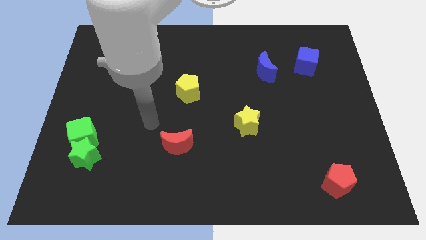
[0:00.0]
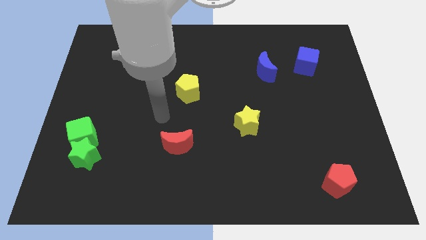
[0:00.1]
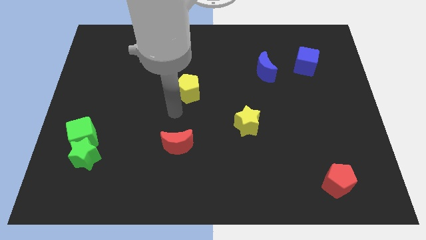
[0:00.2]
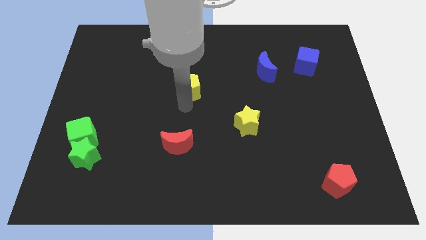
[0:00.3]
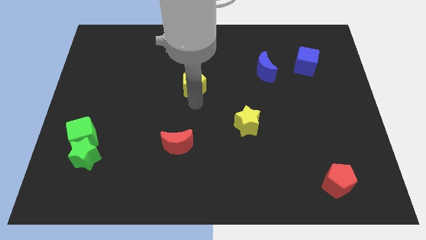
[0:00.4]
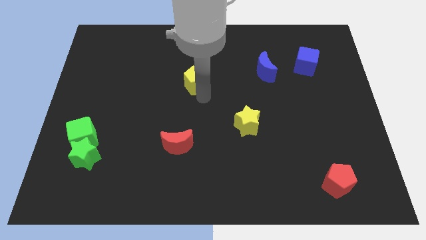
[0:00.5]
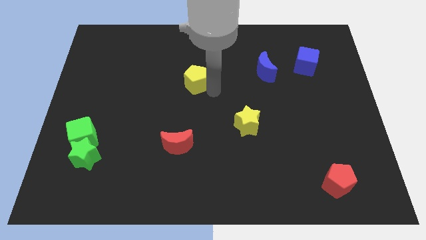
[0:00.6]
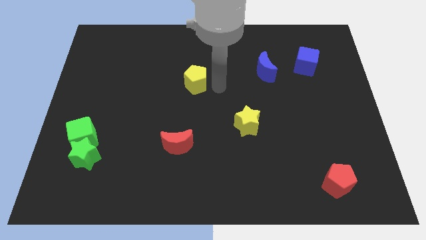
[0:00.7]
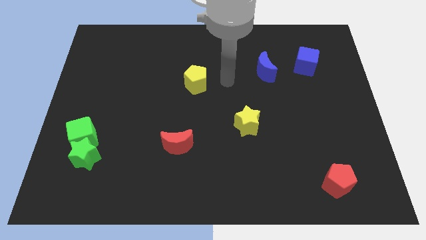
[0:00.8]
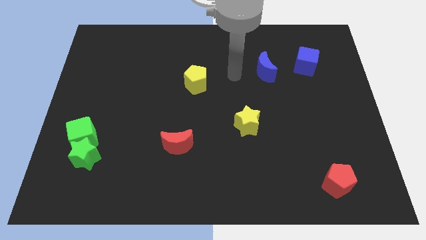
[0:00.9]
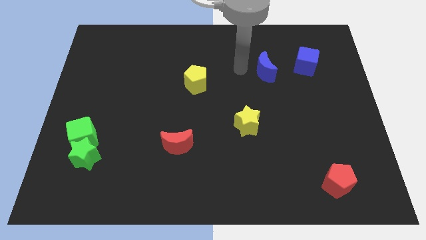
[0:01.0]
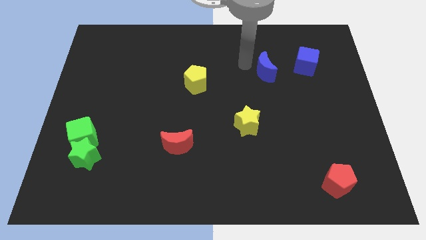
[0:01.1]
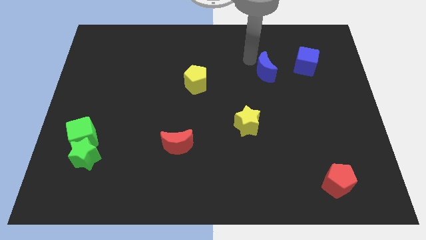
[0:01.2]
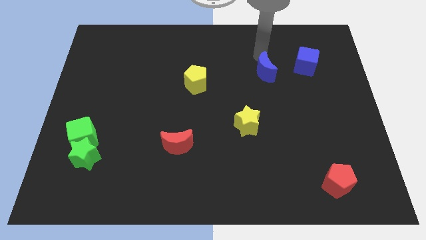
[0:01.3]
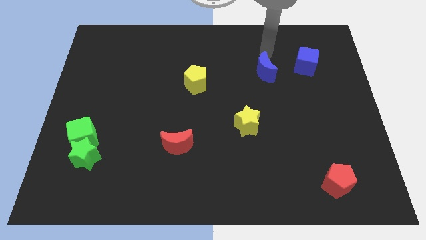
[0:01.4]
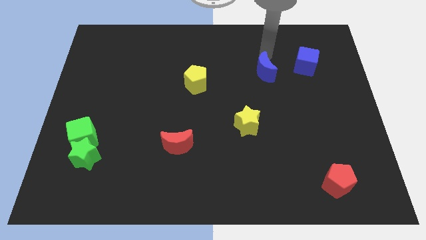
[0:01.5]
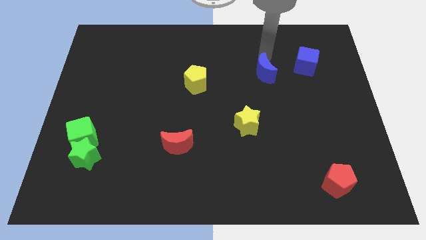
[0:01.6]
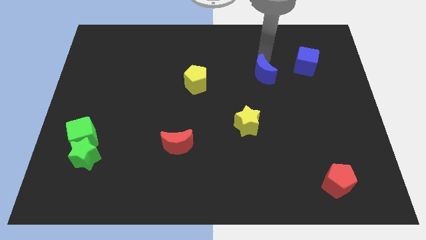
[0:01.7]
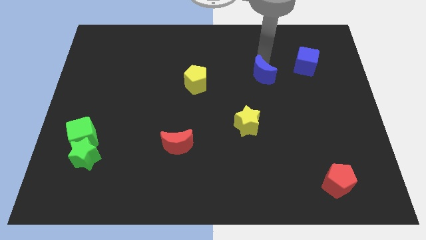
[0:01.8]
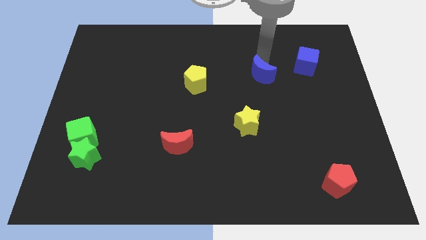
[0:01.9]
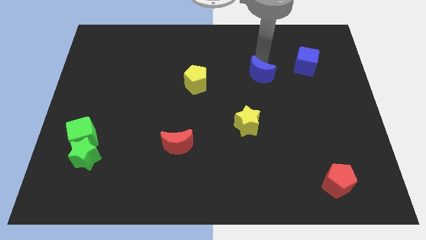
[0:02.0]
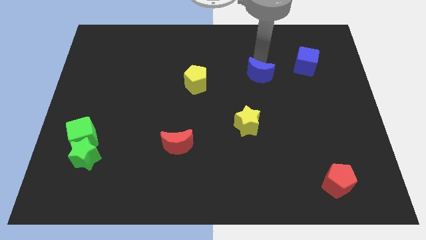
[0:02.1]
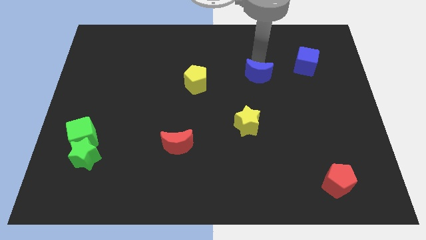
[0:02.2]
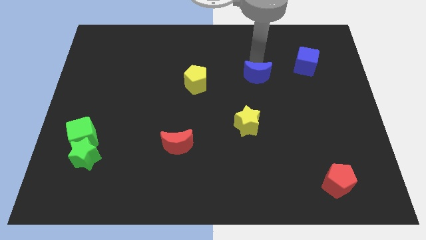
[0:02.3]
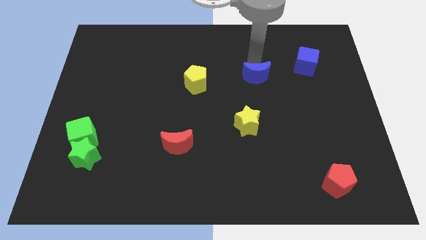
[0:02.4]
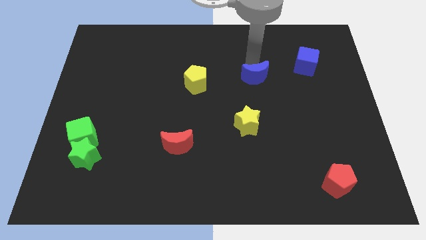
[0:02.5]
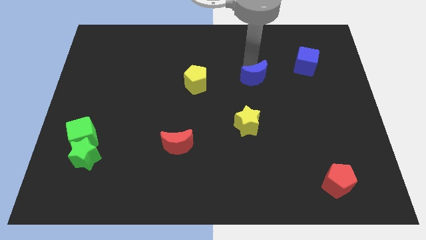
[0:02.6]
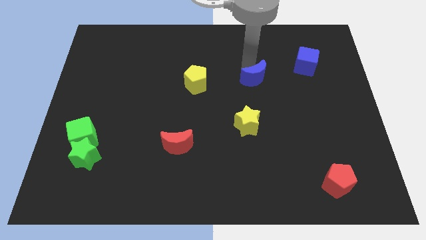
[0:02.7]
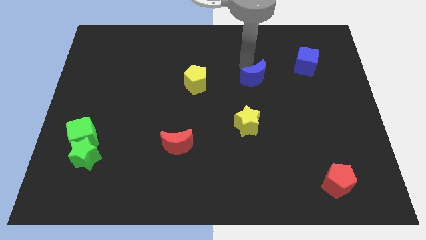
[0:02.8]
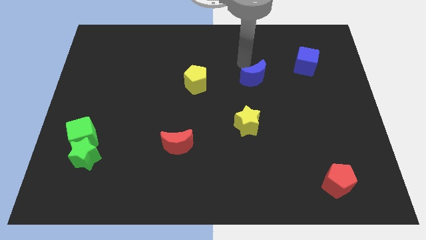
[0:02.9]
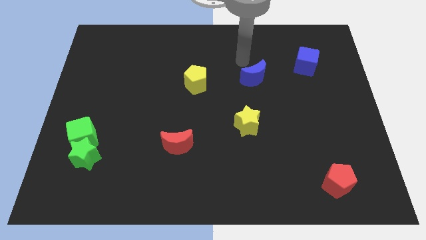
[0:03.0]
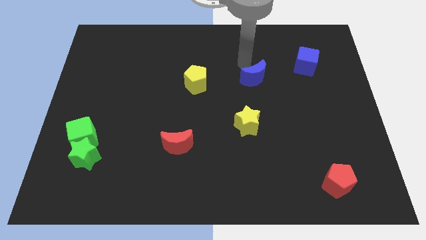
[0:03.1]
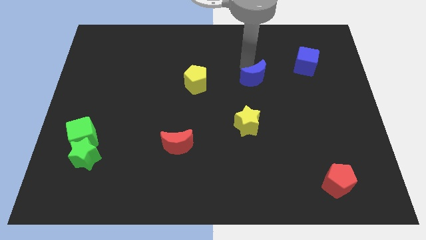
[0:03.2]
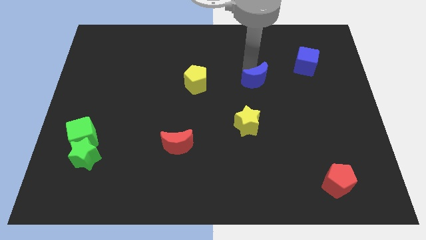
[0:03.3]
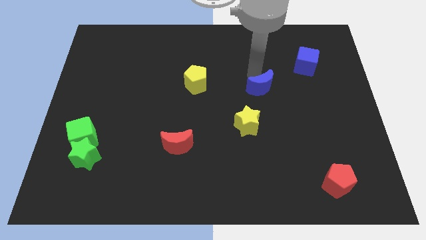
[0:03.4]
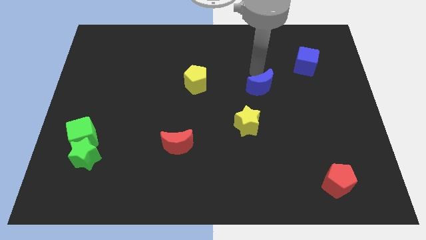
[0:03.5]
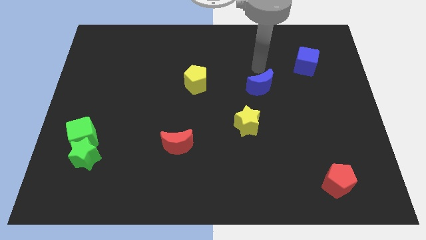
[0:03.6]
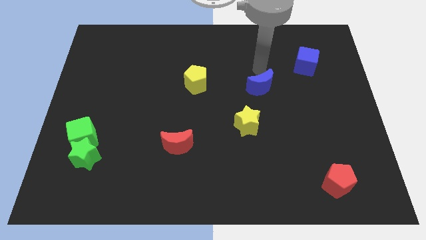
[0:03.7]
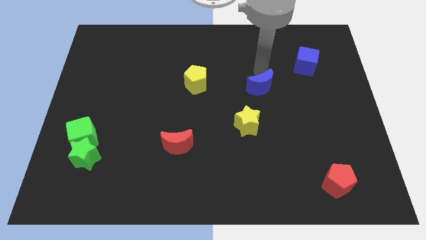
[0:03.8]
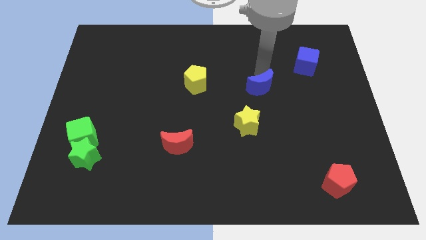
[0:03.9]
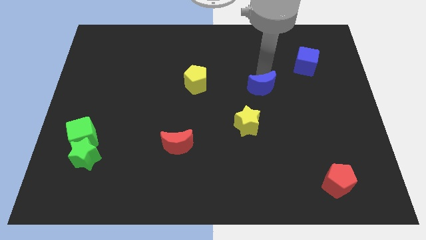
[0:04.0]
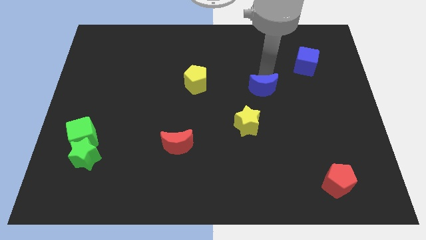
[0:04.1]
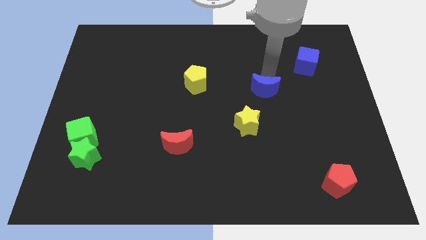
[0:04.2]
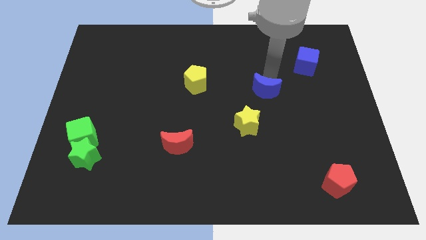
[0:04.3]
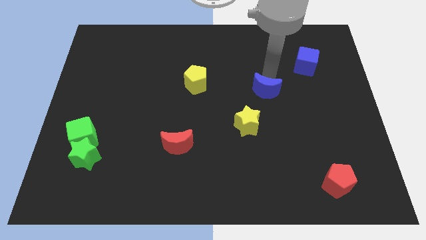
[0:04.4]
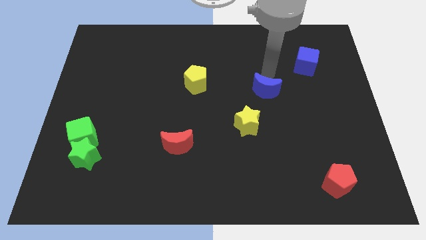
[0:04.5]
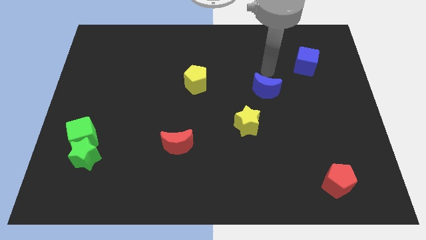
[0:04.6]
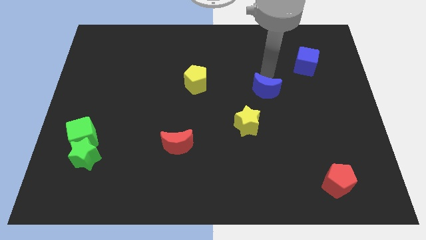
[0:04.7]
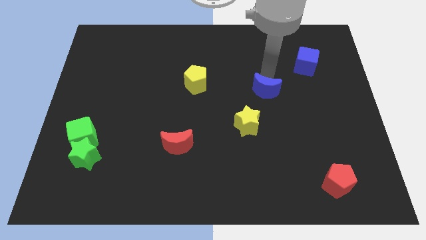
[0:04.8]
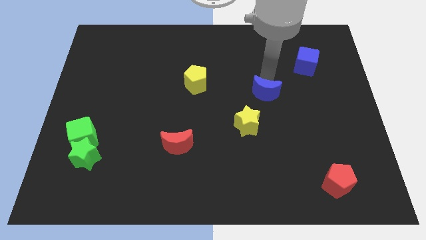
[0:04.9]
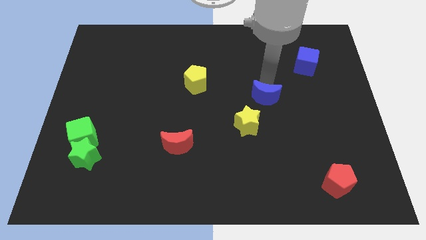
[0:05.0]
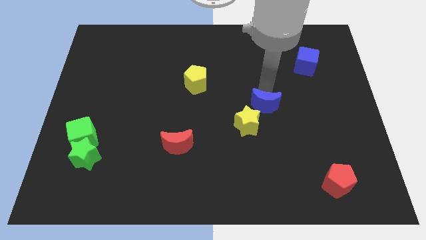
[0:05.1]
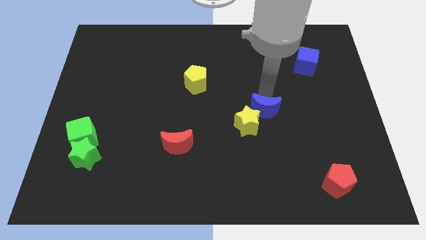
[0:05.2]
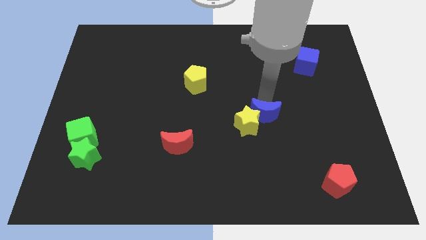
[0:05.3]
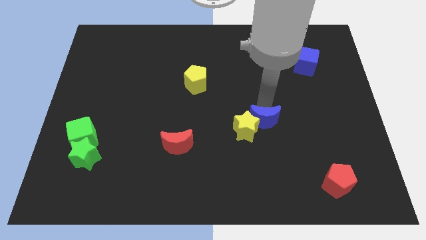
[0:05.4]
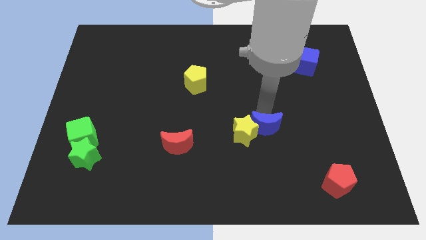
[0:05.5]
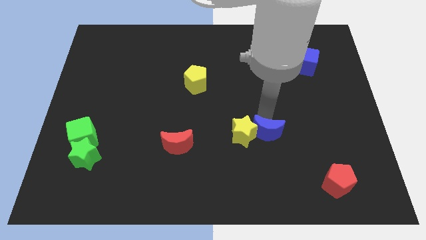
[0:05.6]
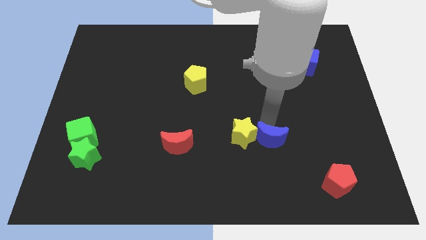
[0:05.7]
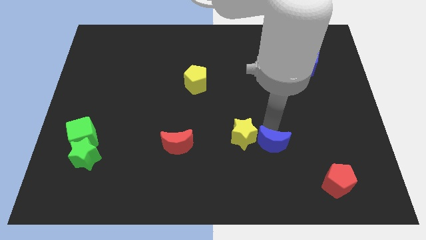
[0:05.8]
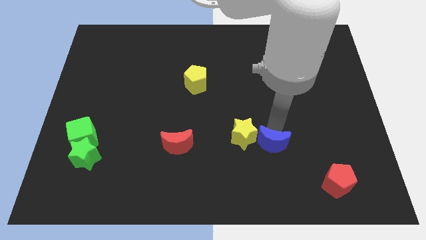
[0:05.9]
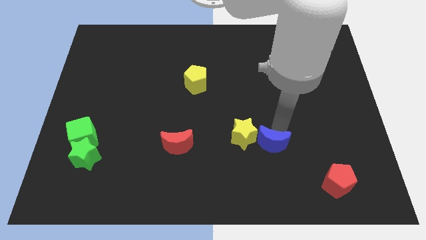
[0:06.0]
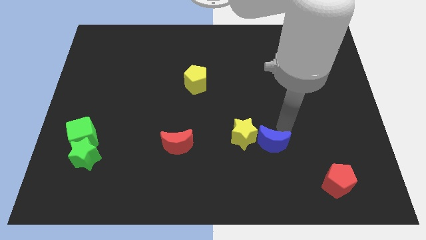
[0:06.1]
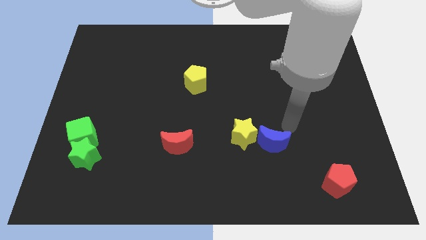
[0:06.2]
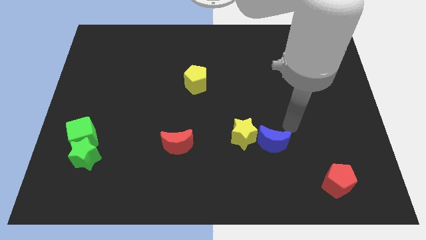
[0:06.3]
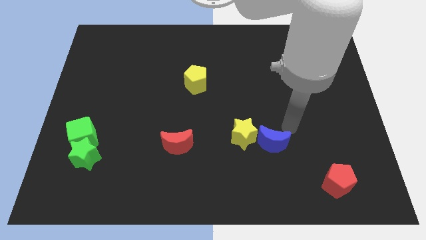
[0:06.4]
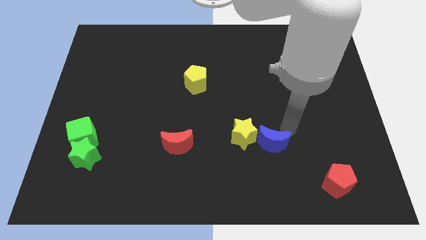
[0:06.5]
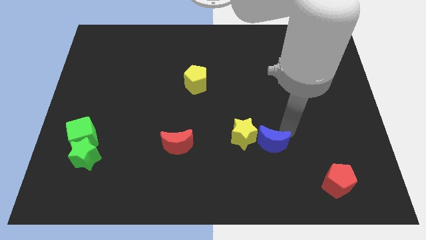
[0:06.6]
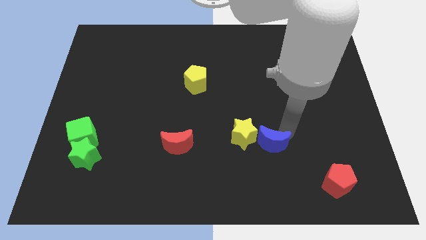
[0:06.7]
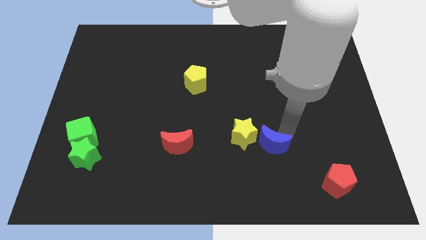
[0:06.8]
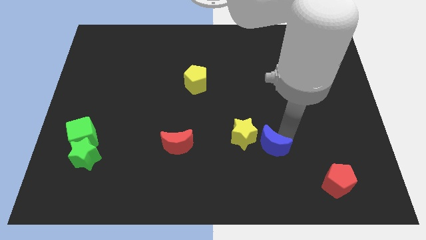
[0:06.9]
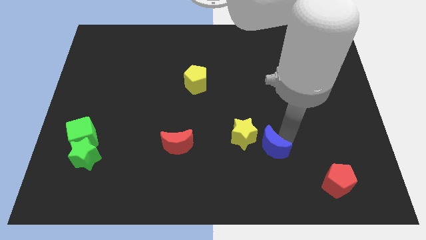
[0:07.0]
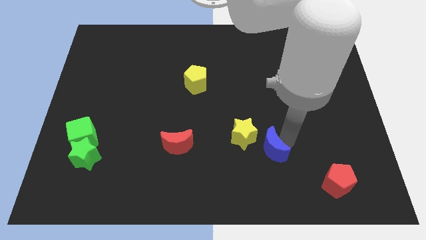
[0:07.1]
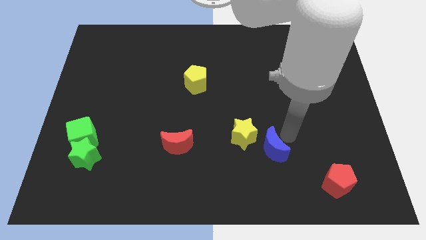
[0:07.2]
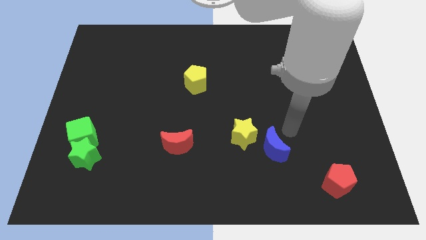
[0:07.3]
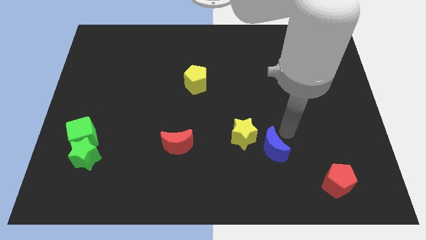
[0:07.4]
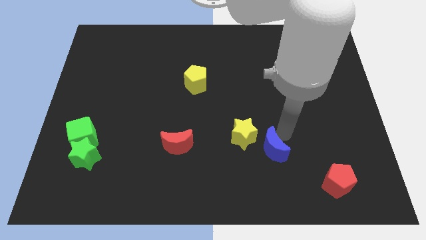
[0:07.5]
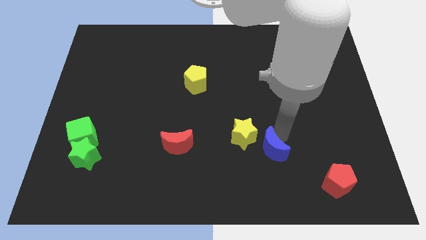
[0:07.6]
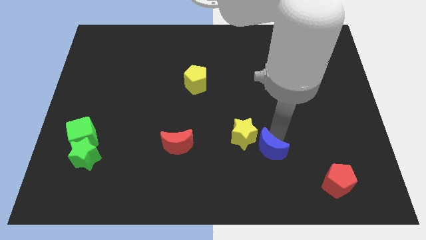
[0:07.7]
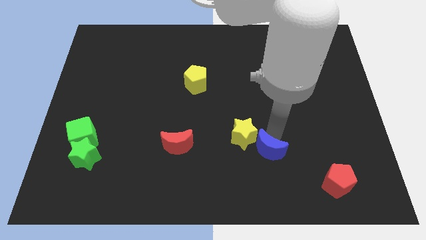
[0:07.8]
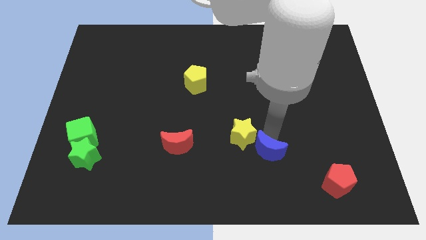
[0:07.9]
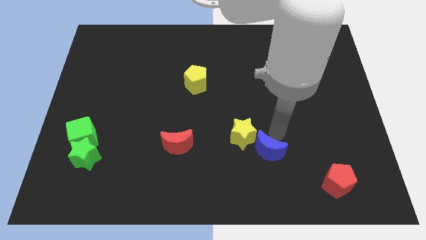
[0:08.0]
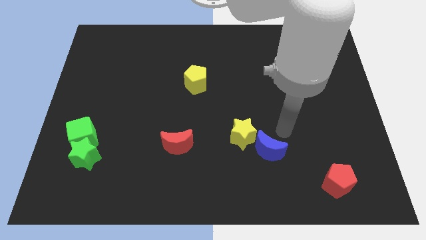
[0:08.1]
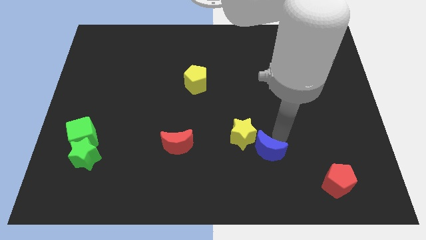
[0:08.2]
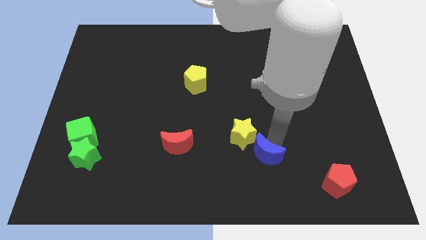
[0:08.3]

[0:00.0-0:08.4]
push the blue moon to the bottom side of the yellow star
